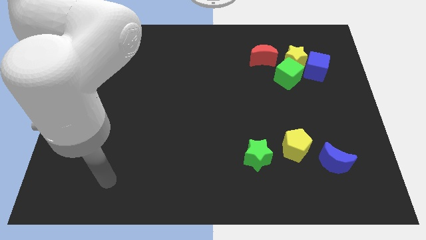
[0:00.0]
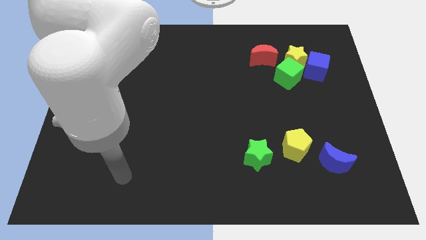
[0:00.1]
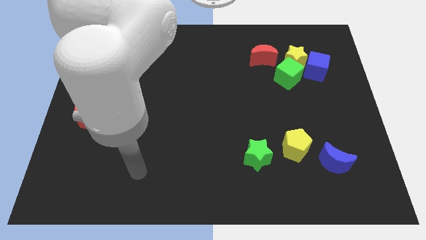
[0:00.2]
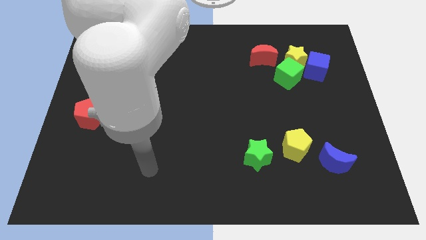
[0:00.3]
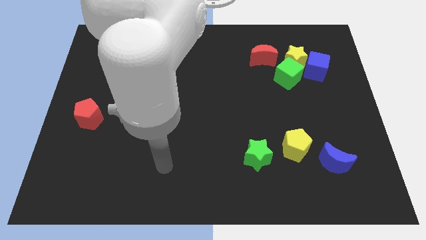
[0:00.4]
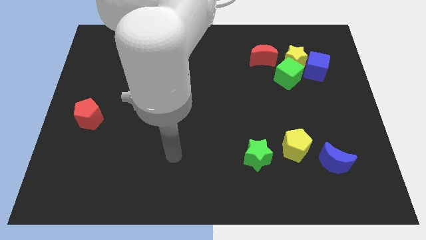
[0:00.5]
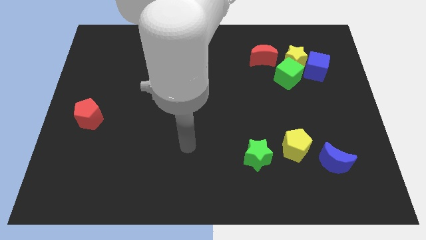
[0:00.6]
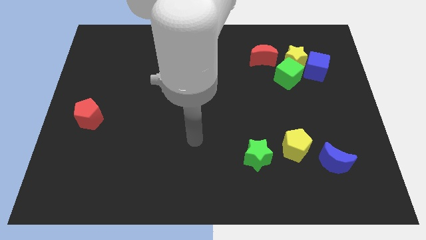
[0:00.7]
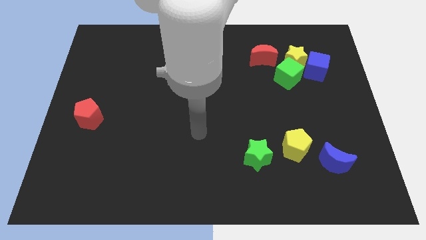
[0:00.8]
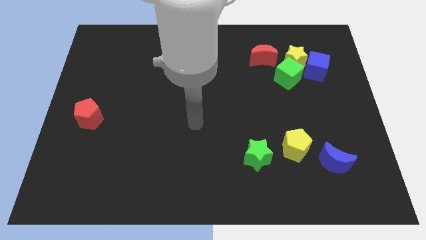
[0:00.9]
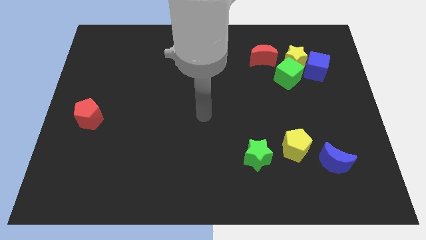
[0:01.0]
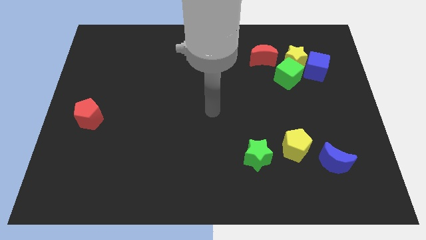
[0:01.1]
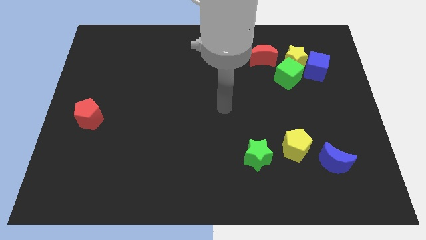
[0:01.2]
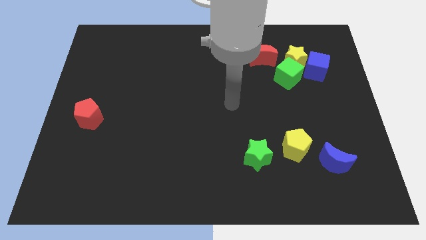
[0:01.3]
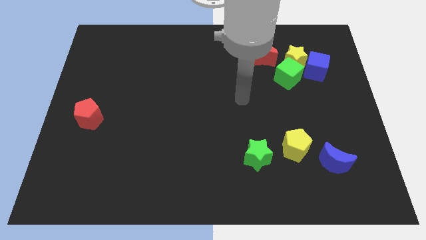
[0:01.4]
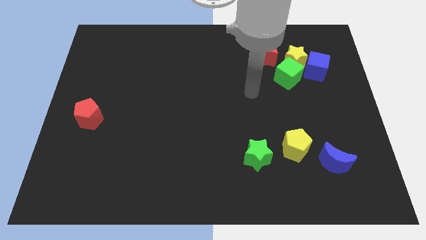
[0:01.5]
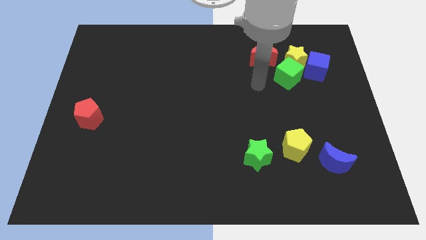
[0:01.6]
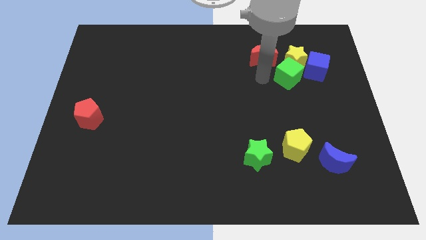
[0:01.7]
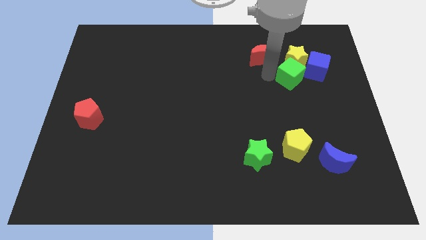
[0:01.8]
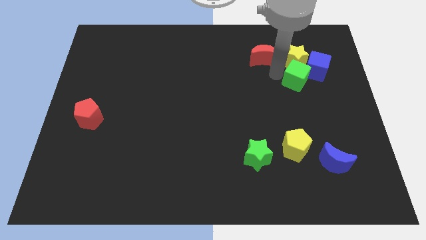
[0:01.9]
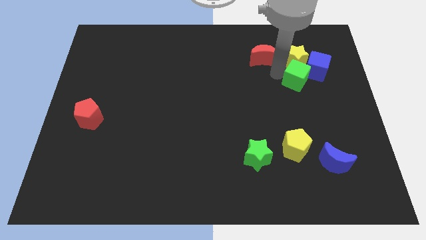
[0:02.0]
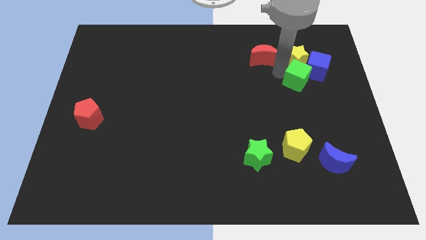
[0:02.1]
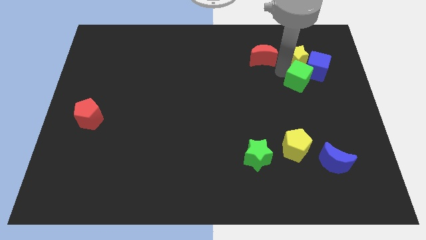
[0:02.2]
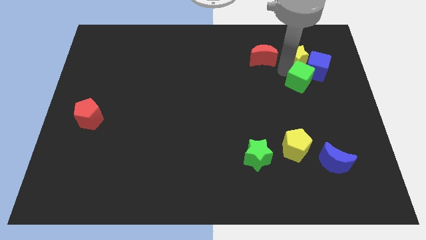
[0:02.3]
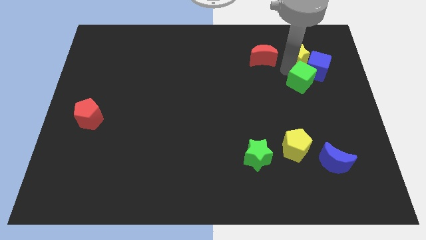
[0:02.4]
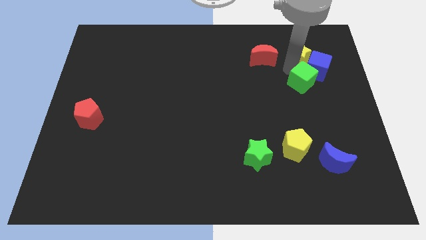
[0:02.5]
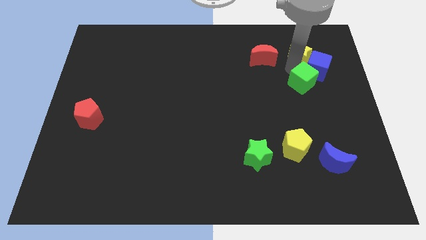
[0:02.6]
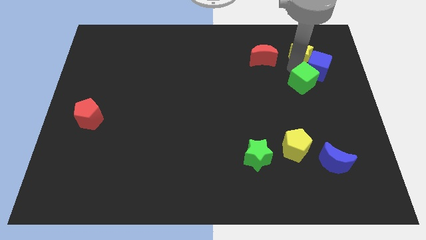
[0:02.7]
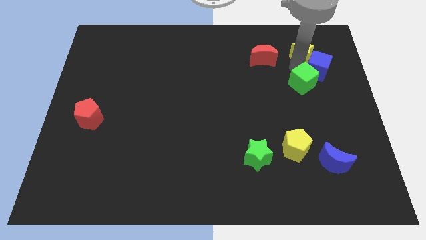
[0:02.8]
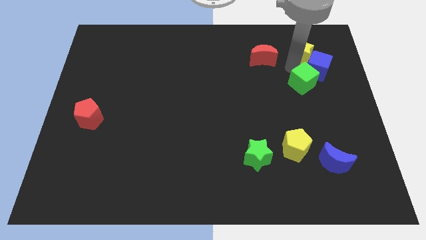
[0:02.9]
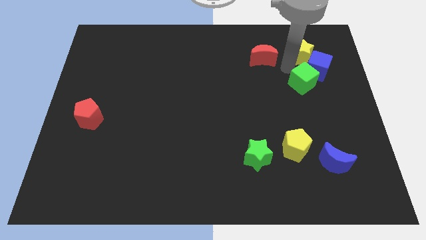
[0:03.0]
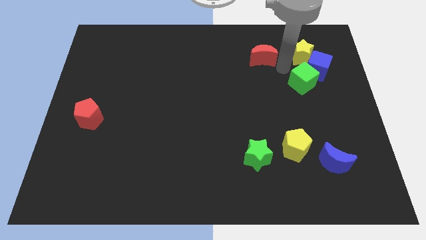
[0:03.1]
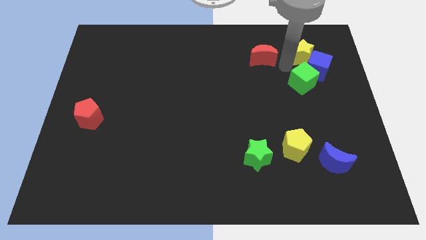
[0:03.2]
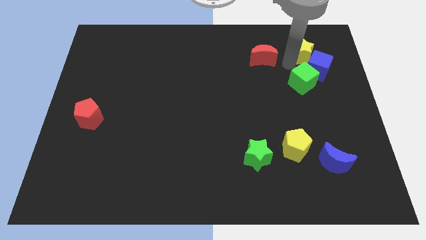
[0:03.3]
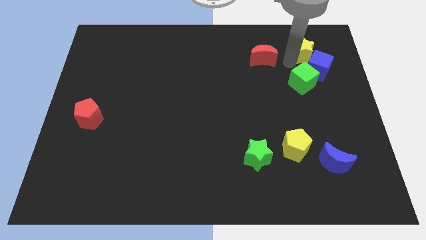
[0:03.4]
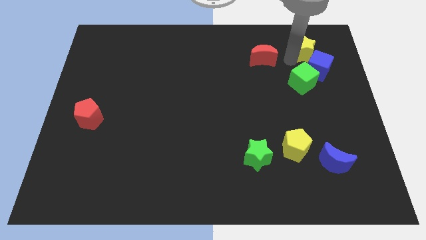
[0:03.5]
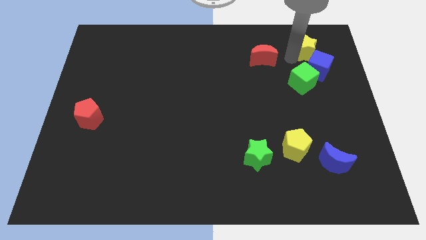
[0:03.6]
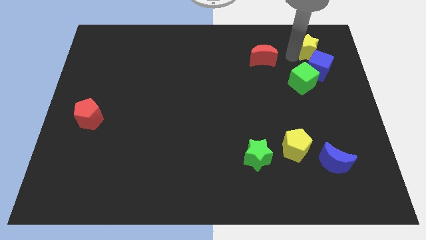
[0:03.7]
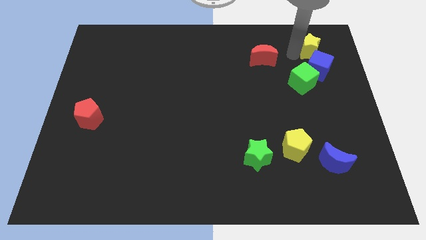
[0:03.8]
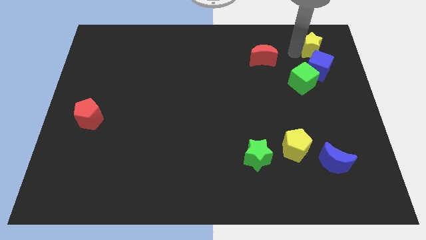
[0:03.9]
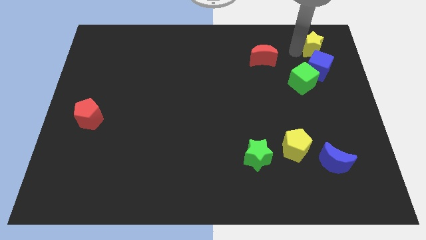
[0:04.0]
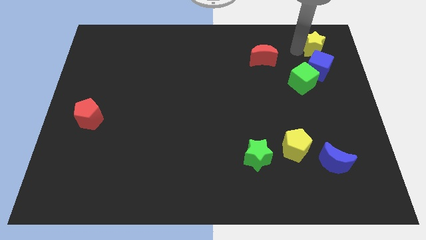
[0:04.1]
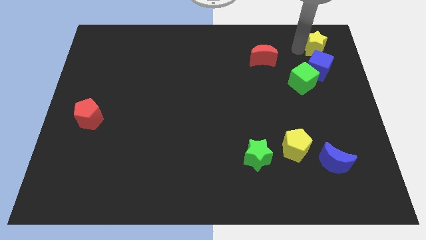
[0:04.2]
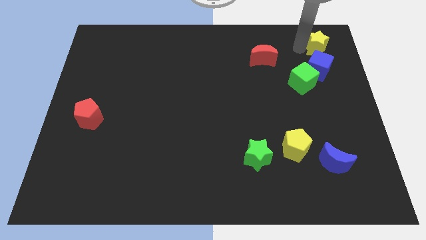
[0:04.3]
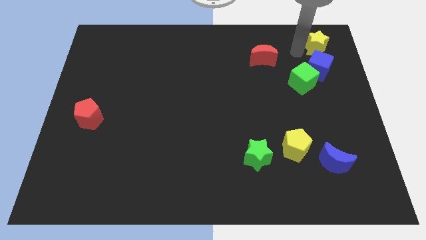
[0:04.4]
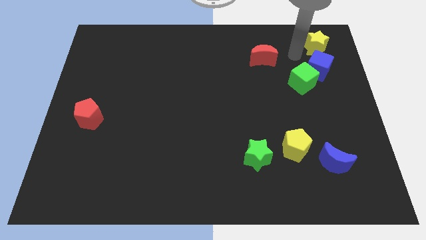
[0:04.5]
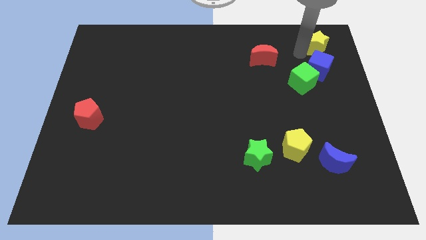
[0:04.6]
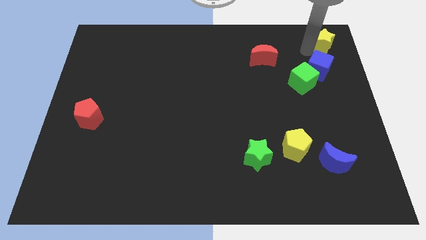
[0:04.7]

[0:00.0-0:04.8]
push the yellow star to the upper right corner

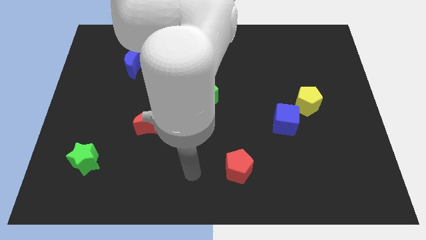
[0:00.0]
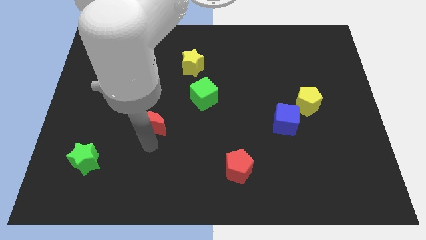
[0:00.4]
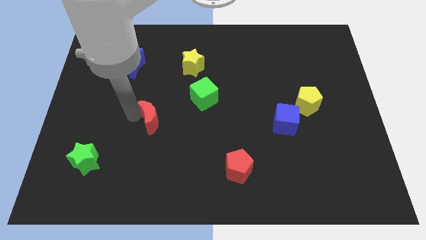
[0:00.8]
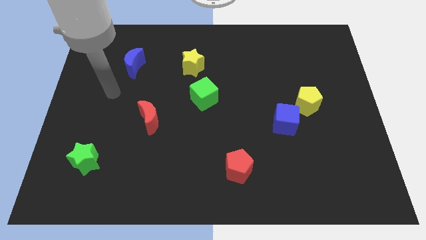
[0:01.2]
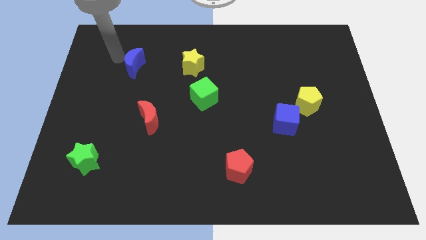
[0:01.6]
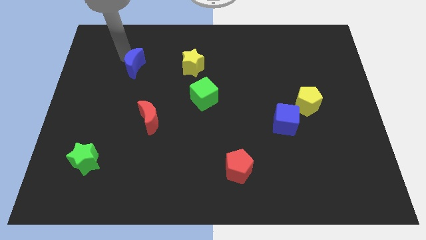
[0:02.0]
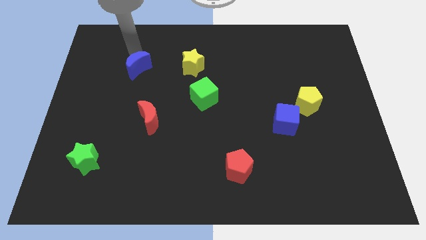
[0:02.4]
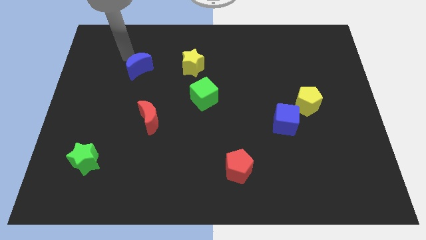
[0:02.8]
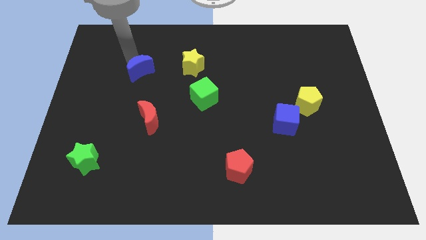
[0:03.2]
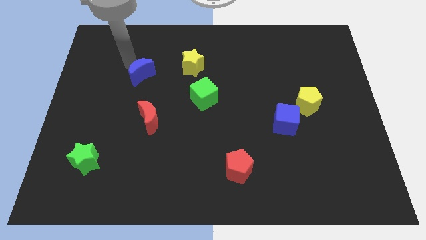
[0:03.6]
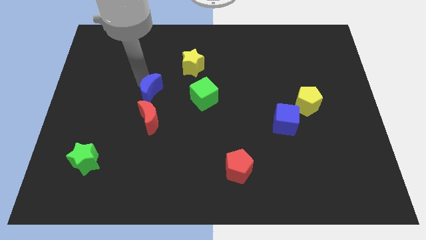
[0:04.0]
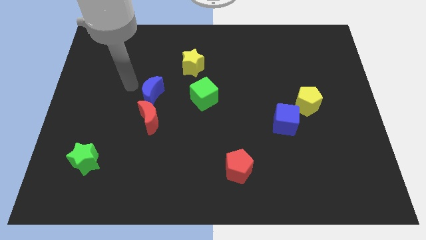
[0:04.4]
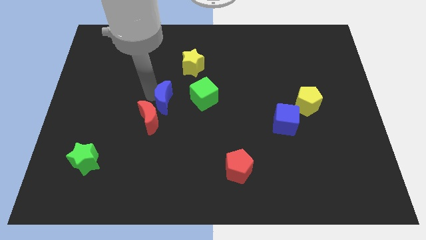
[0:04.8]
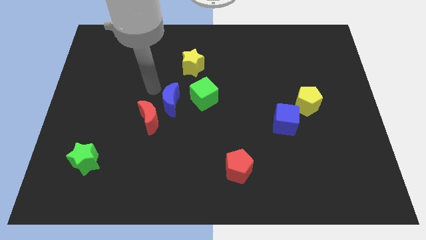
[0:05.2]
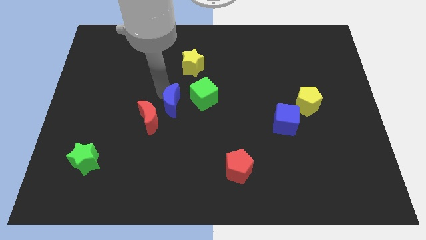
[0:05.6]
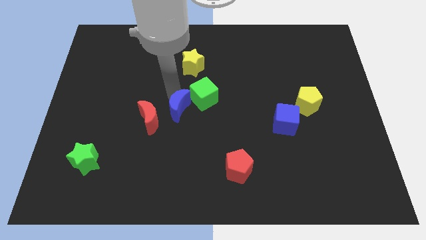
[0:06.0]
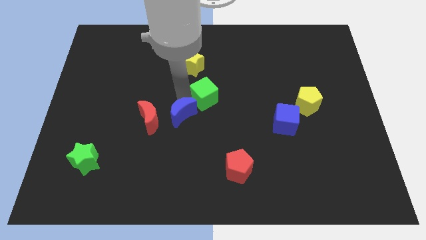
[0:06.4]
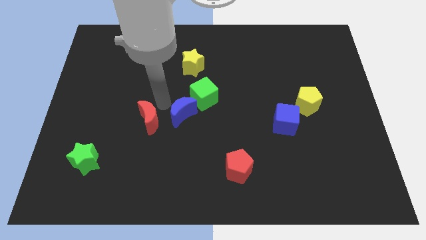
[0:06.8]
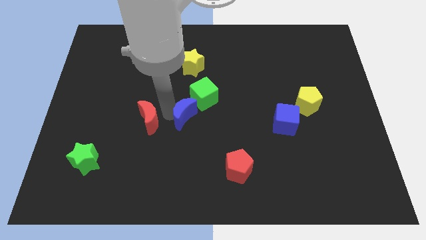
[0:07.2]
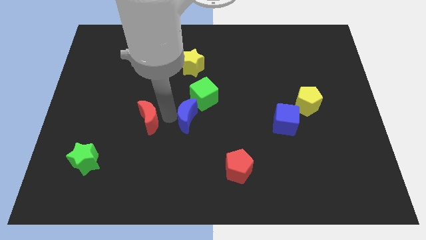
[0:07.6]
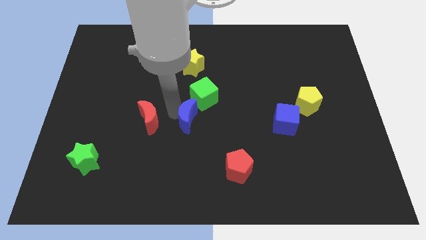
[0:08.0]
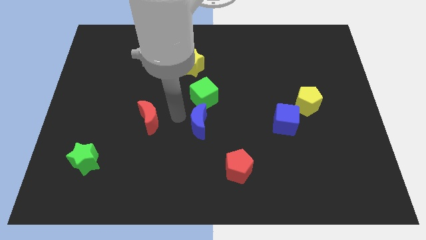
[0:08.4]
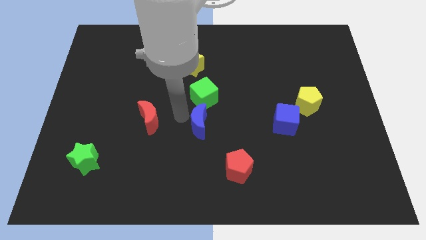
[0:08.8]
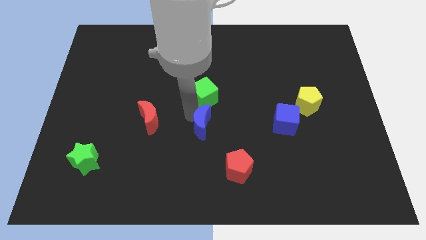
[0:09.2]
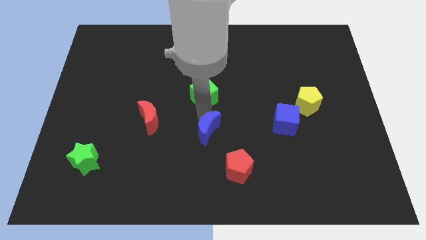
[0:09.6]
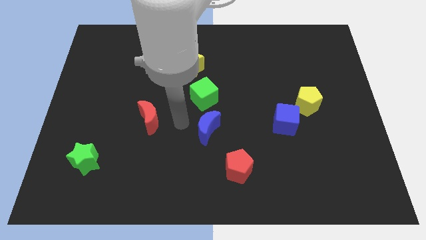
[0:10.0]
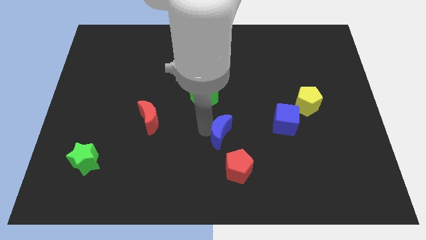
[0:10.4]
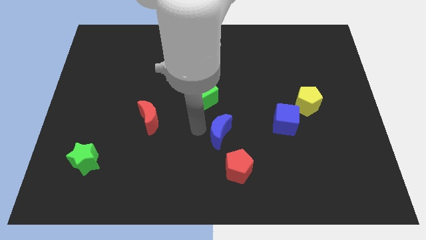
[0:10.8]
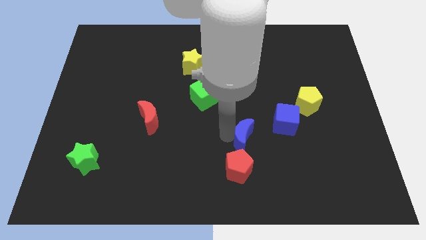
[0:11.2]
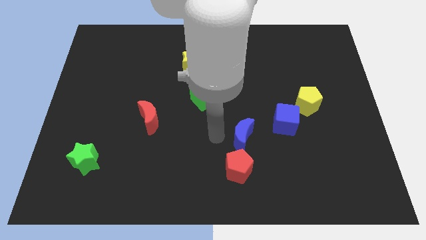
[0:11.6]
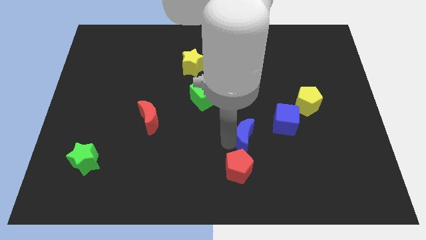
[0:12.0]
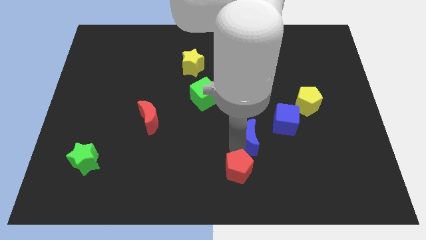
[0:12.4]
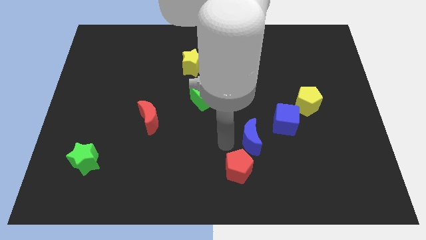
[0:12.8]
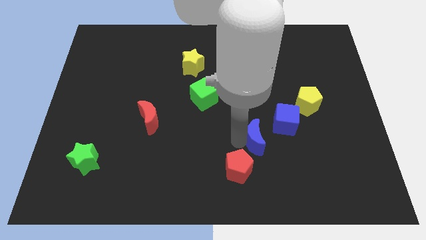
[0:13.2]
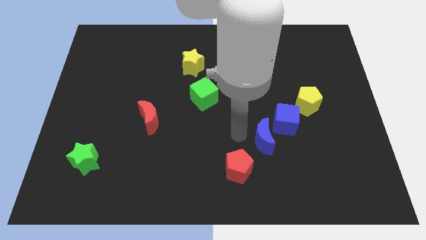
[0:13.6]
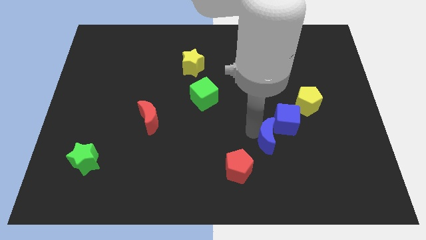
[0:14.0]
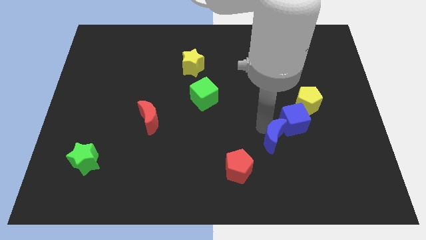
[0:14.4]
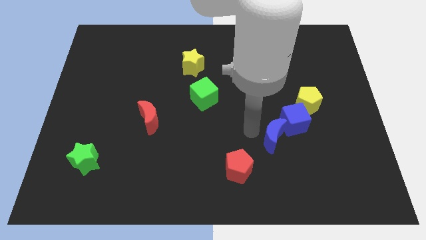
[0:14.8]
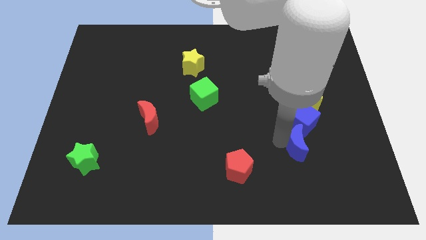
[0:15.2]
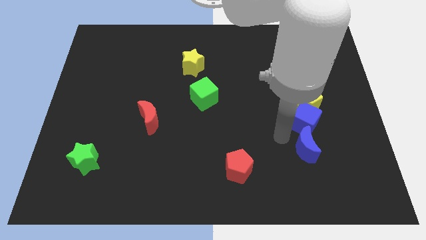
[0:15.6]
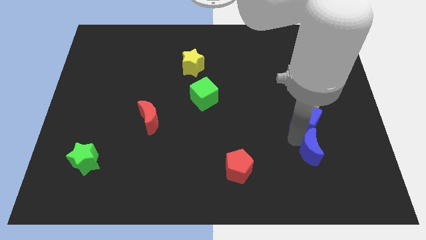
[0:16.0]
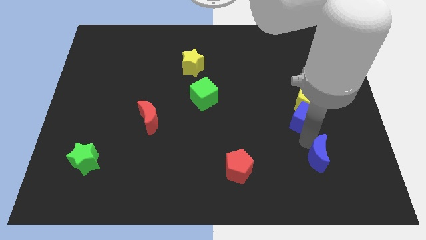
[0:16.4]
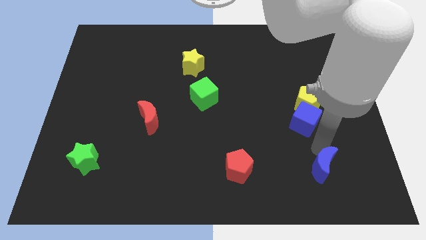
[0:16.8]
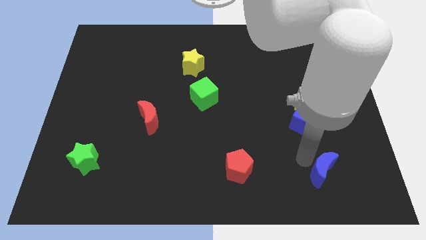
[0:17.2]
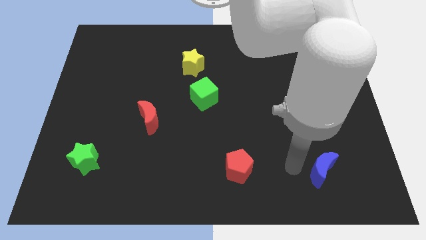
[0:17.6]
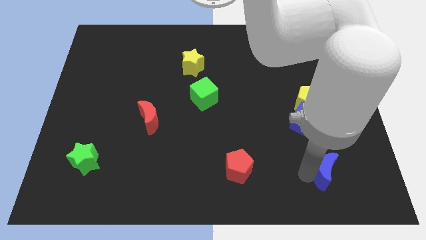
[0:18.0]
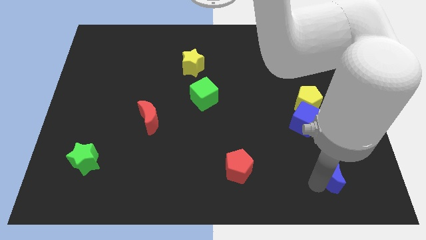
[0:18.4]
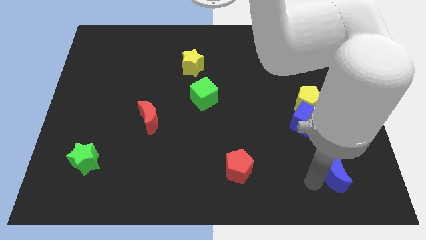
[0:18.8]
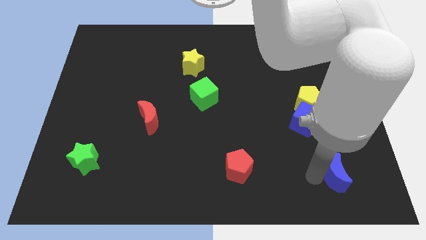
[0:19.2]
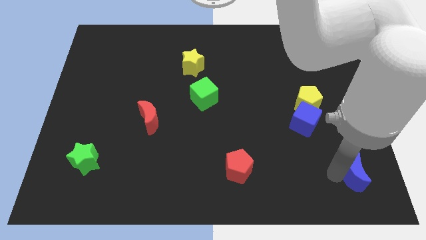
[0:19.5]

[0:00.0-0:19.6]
slide the blue moon to the lower right corner
